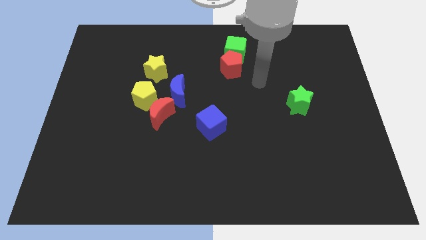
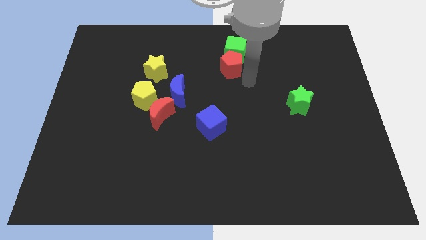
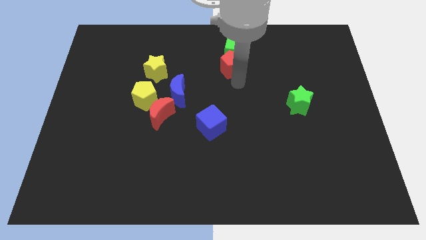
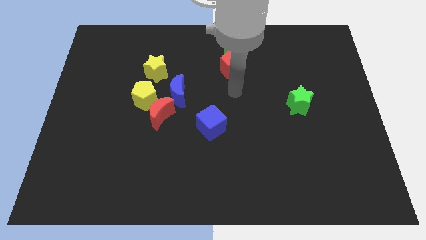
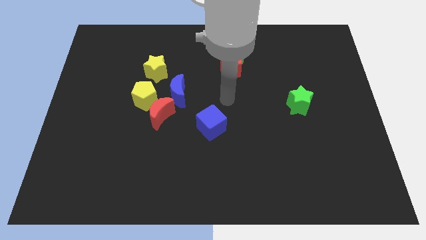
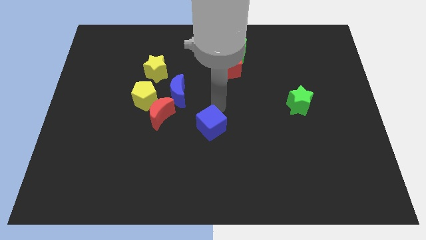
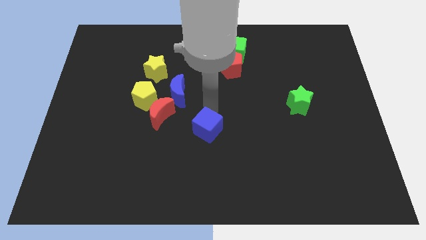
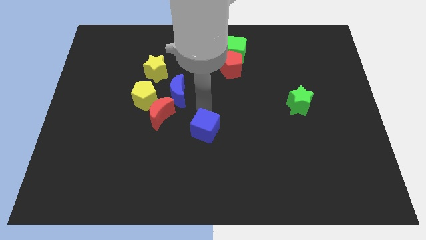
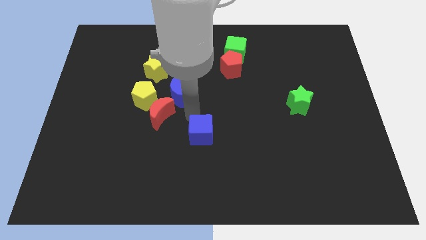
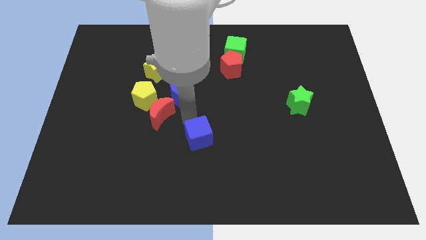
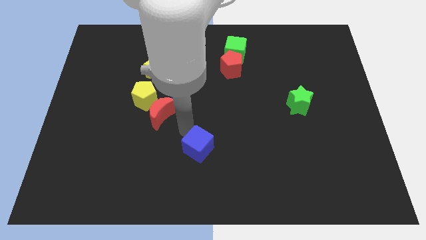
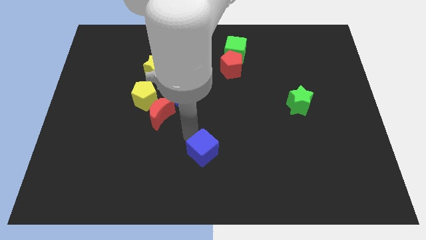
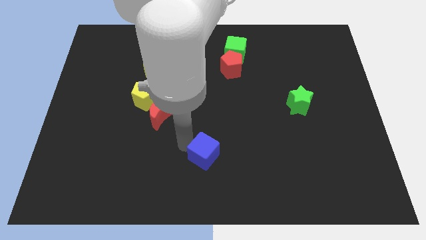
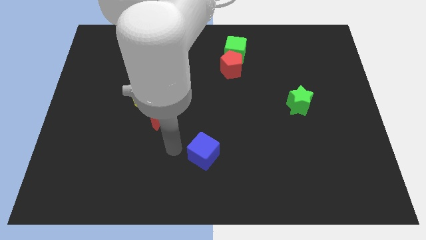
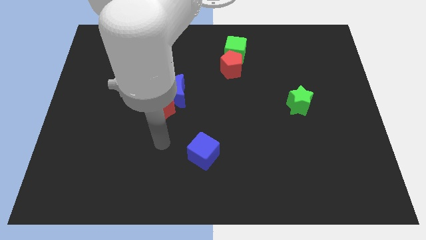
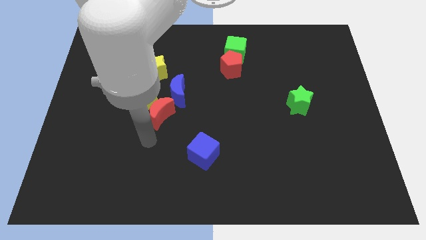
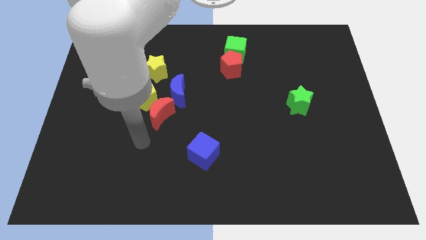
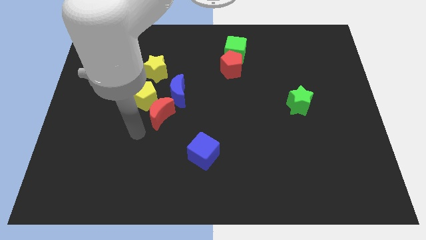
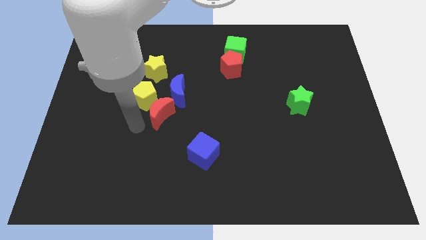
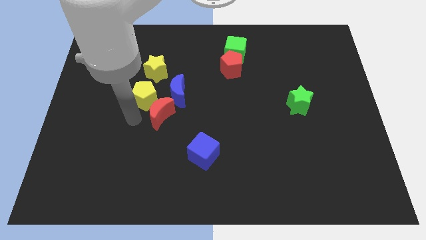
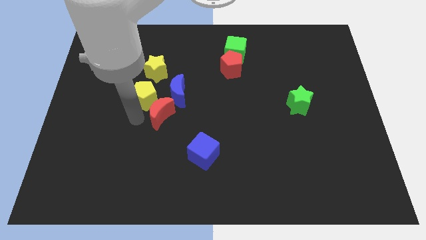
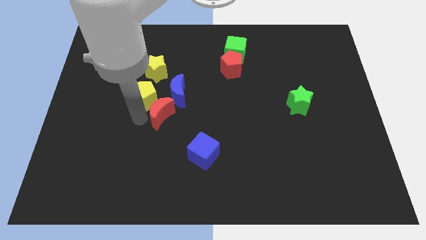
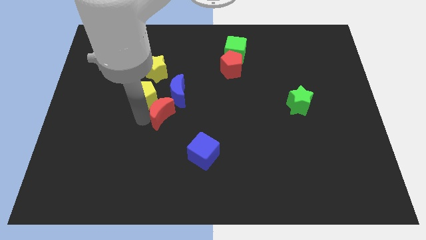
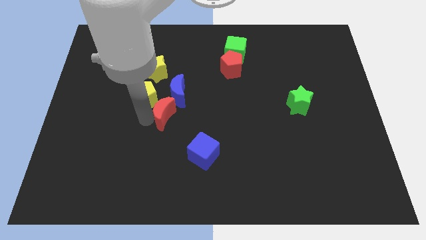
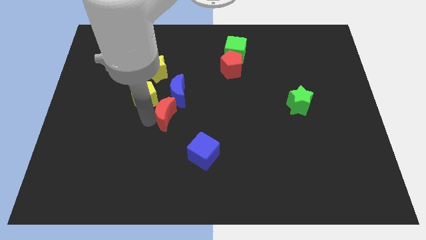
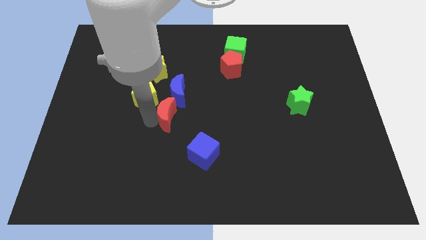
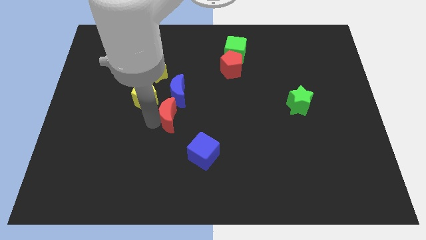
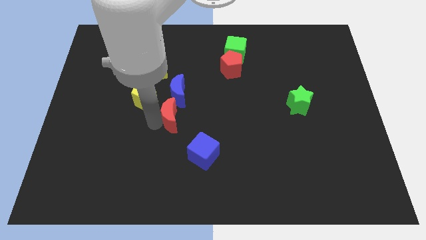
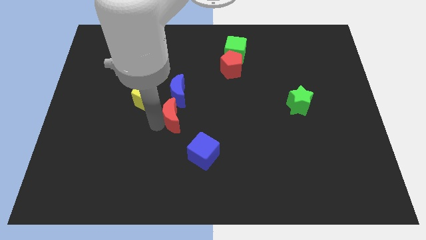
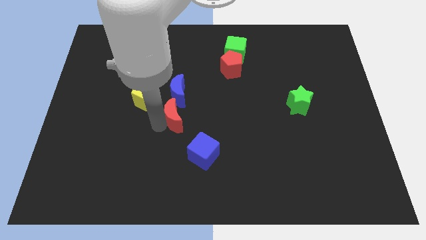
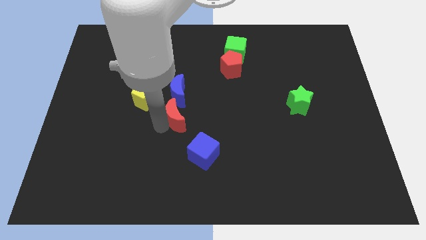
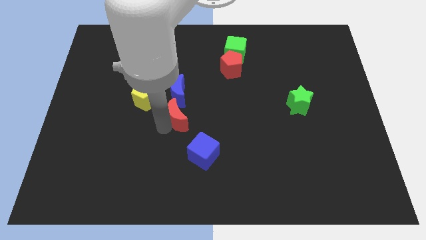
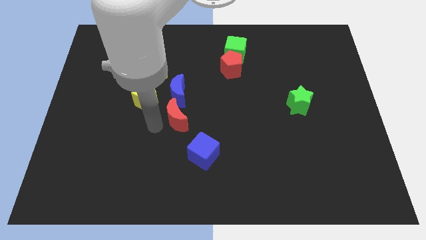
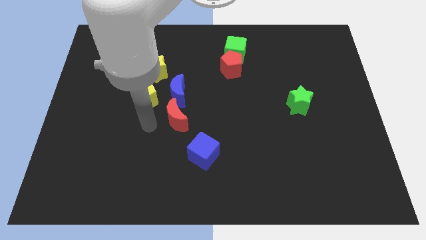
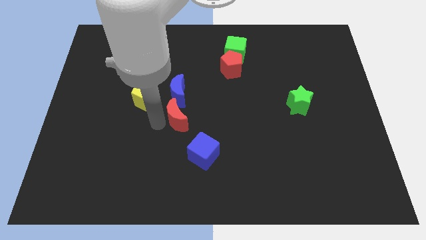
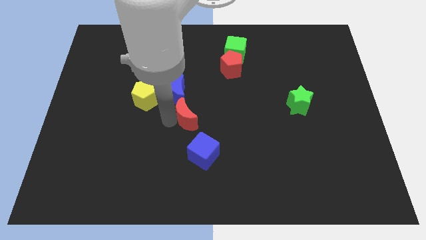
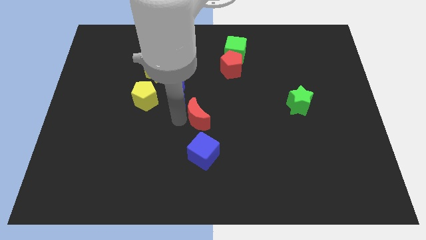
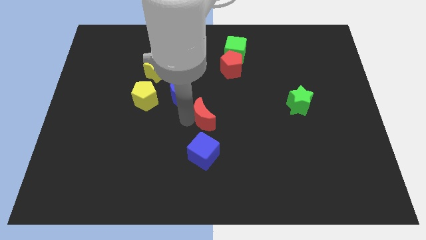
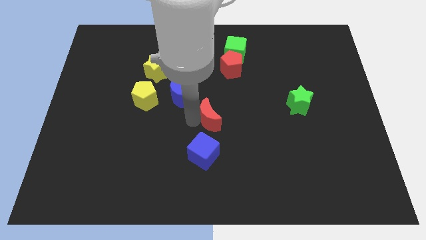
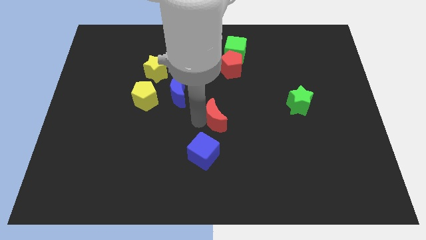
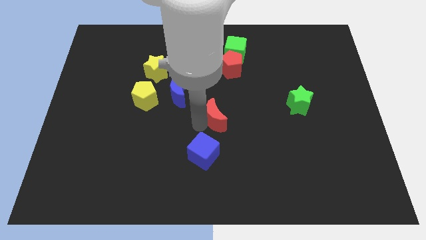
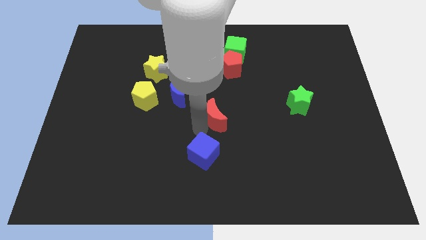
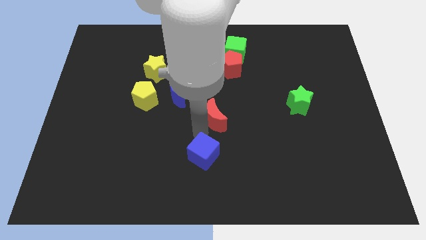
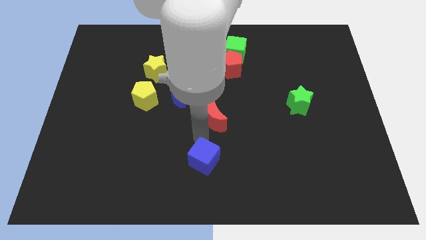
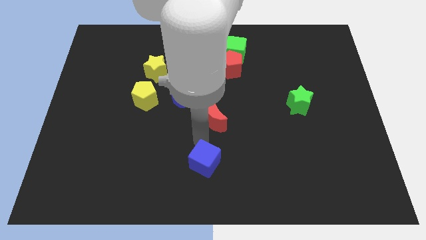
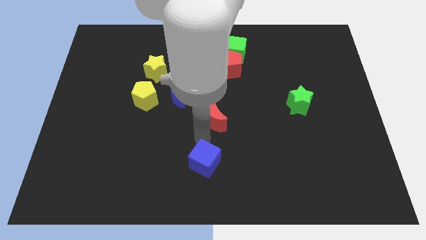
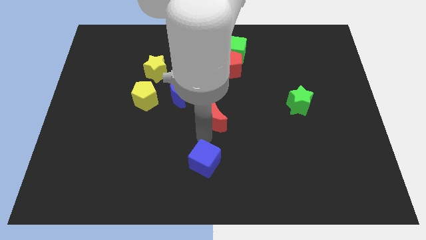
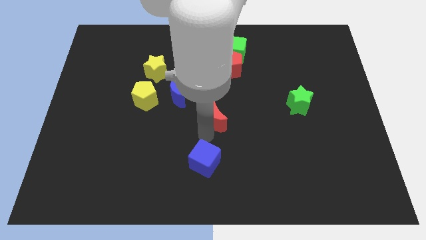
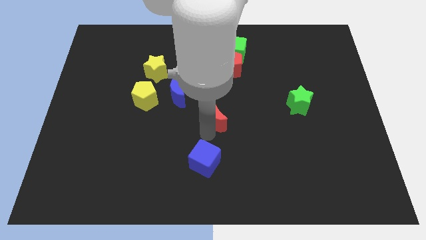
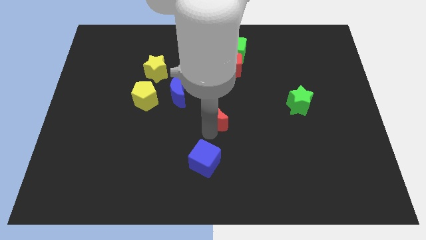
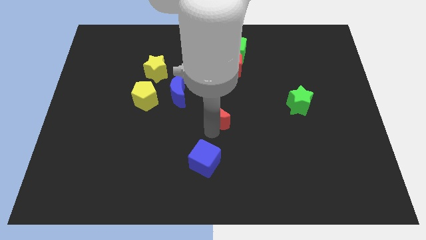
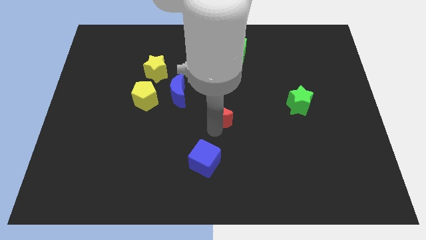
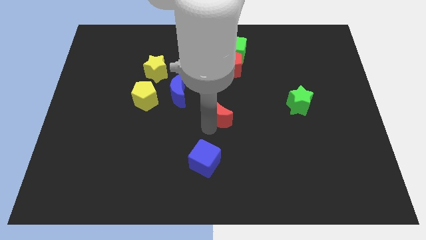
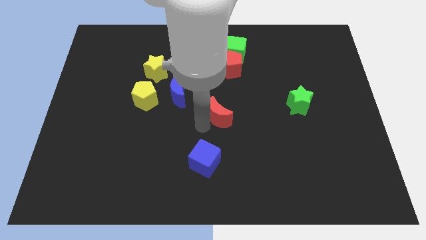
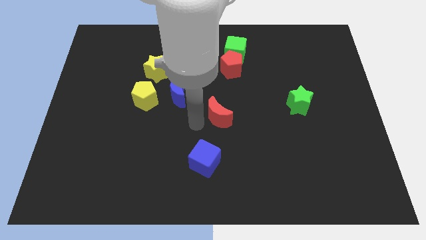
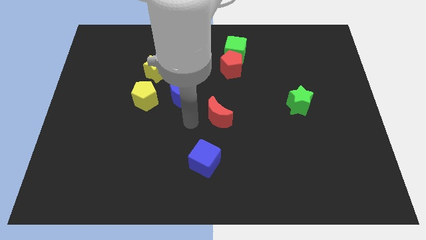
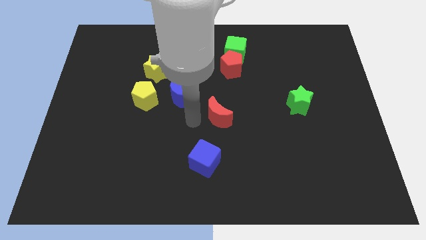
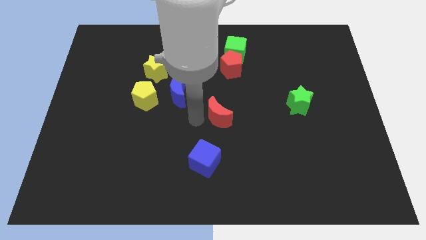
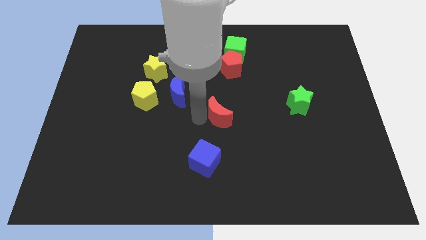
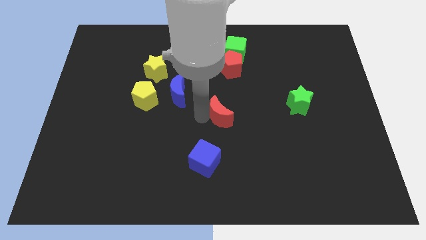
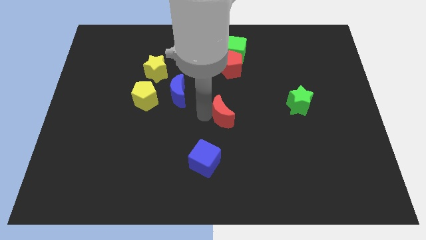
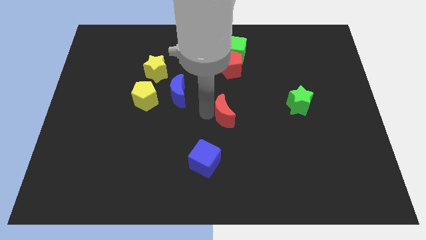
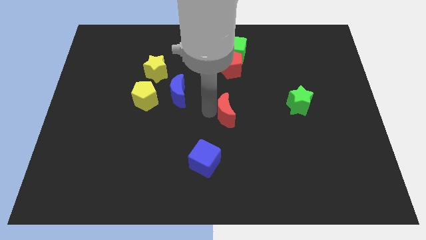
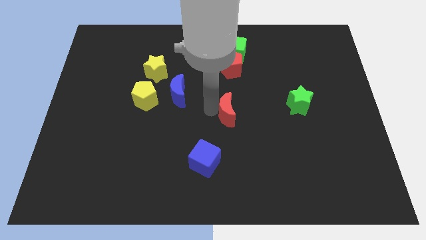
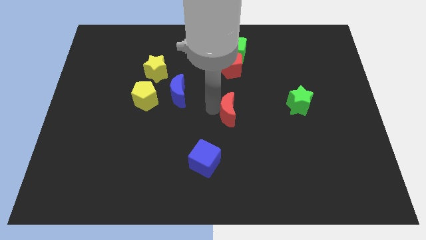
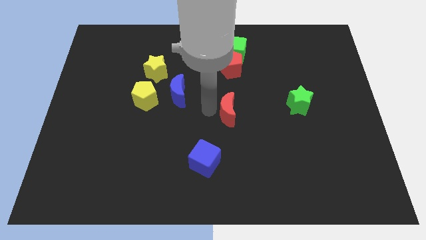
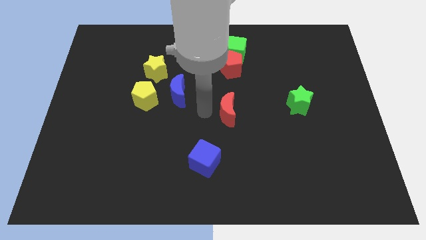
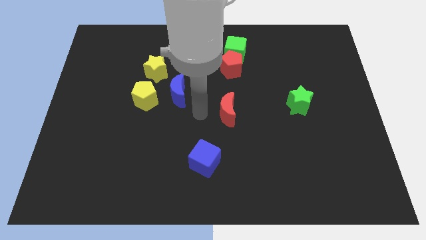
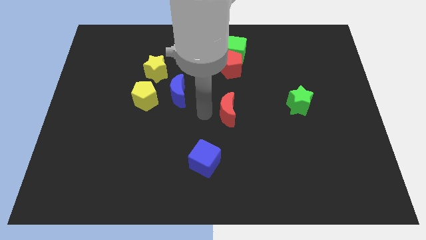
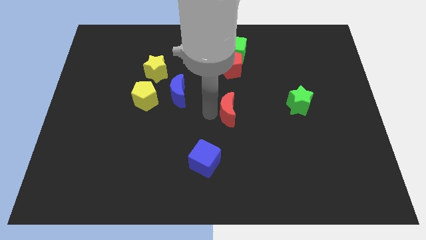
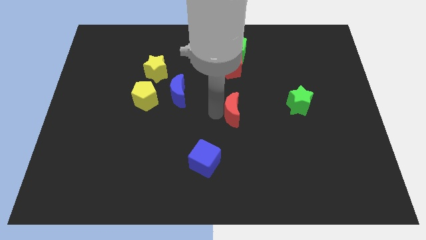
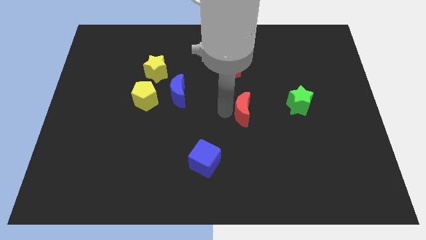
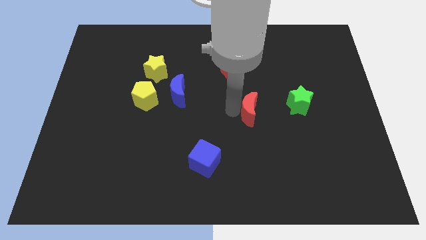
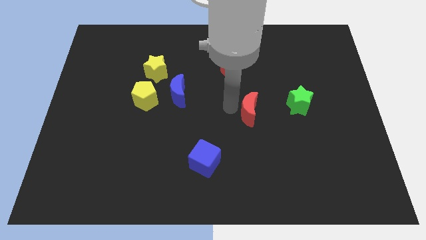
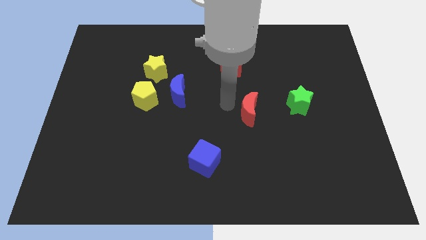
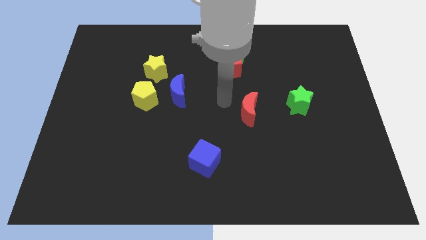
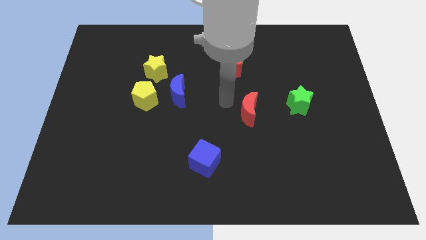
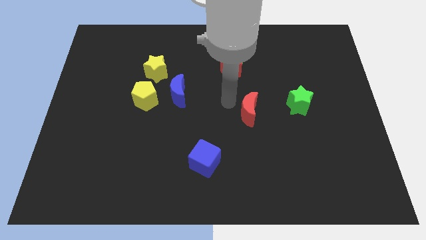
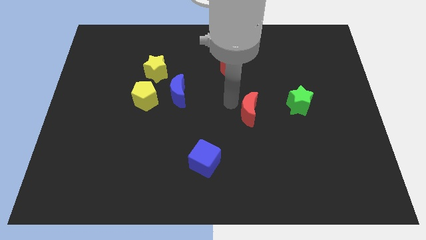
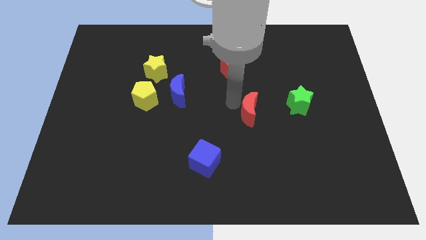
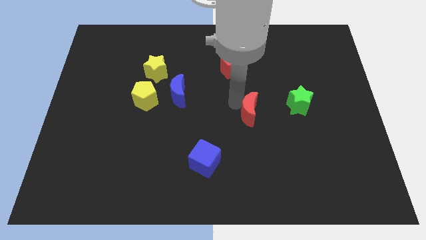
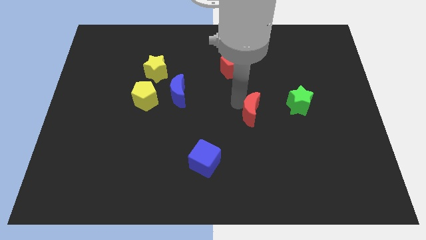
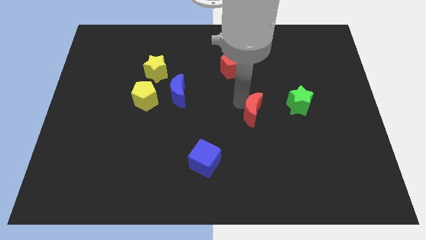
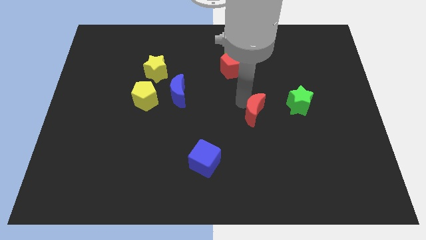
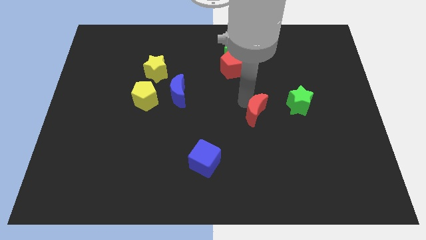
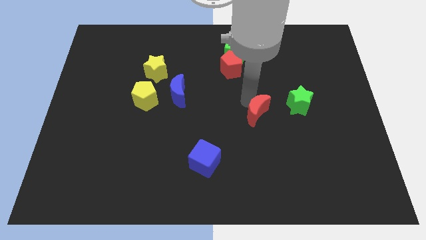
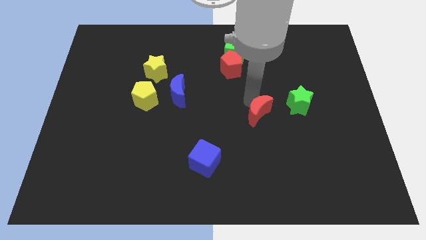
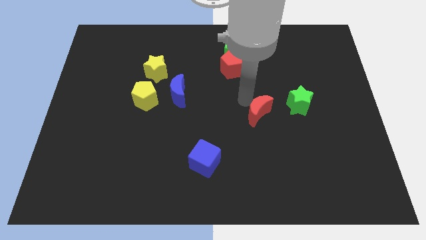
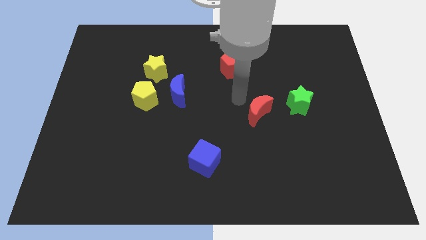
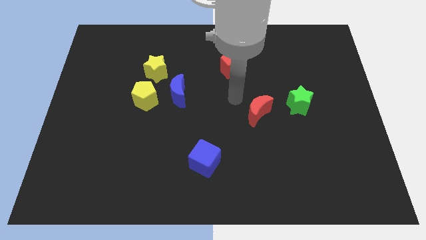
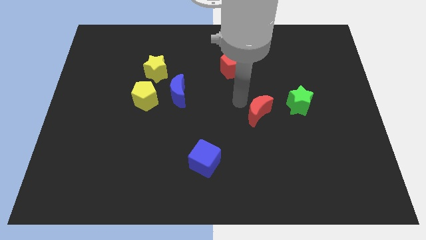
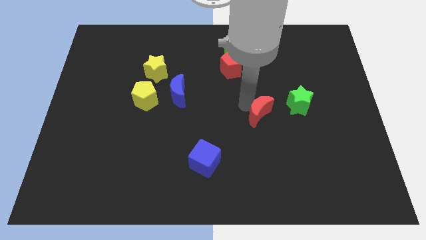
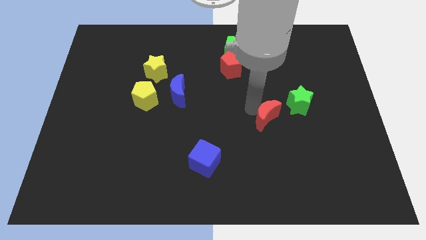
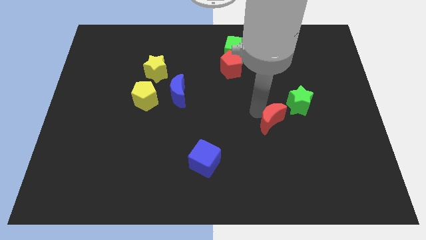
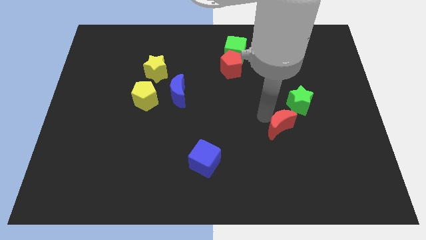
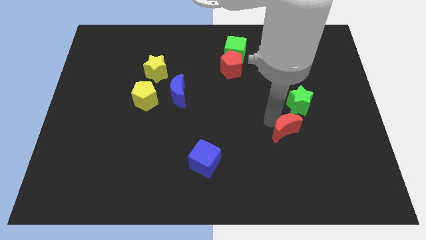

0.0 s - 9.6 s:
slide the red moon to the bottom of the green star
